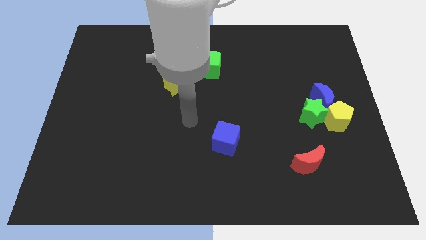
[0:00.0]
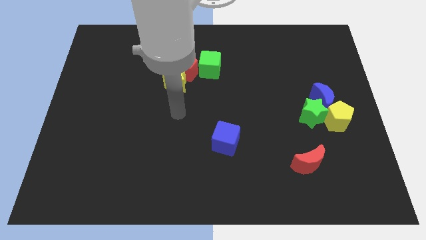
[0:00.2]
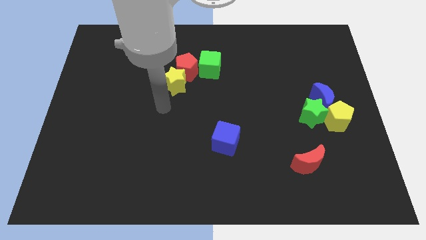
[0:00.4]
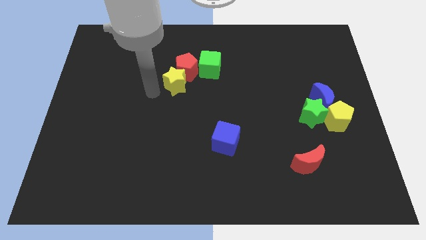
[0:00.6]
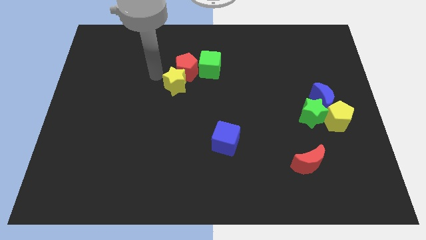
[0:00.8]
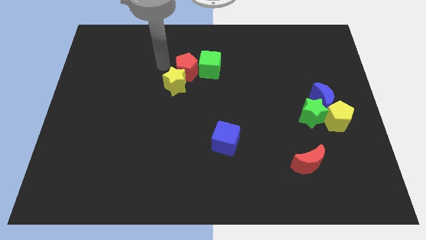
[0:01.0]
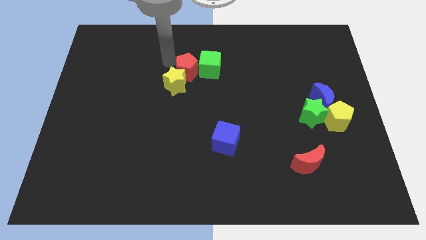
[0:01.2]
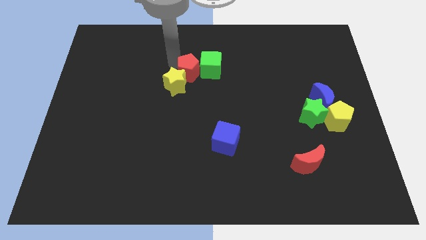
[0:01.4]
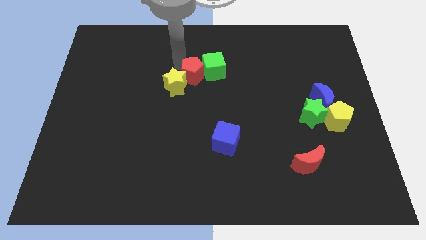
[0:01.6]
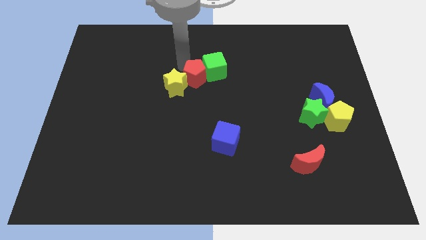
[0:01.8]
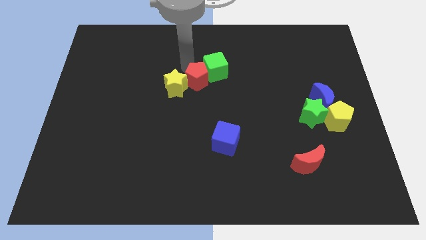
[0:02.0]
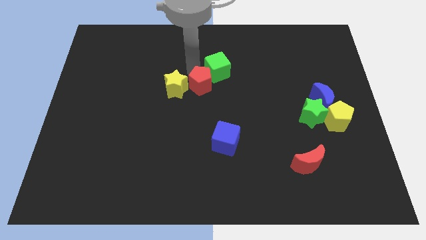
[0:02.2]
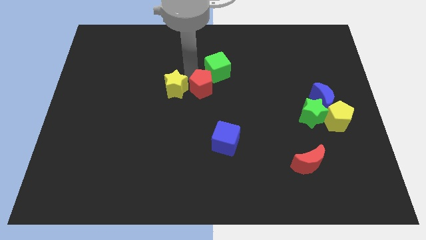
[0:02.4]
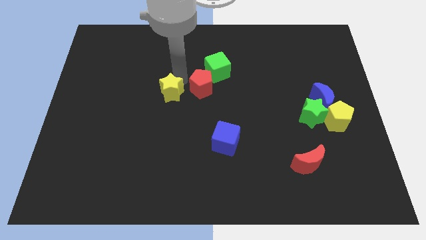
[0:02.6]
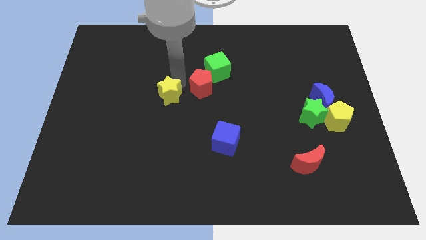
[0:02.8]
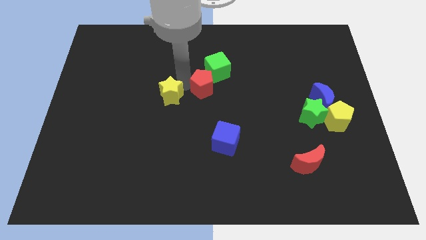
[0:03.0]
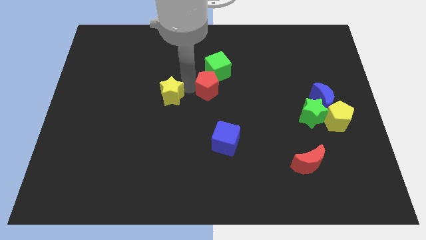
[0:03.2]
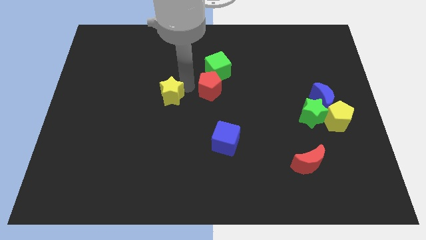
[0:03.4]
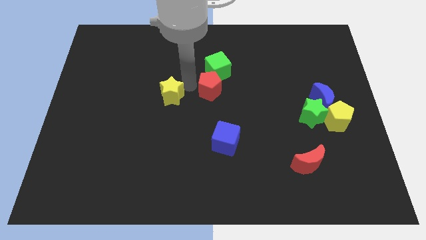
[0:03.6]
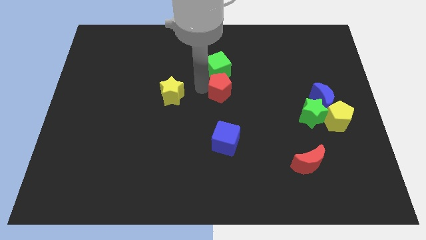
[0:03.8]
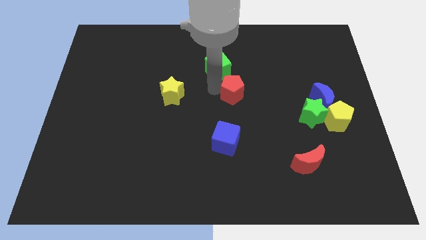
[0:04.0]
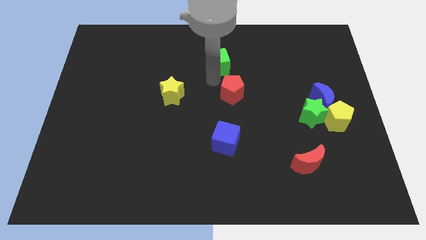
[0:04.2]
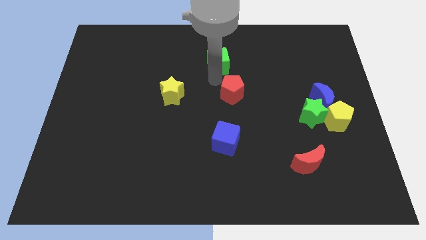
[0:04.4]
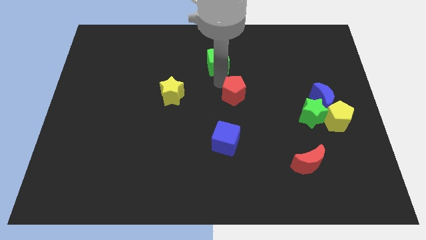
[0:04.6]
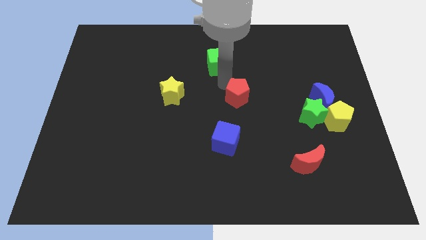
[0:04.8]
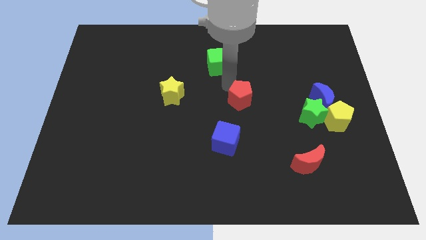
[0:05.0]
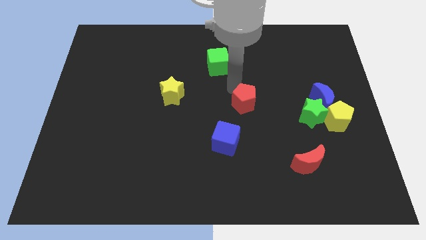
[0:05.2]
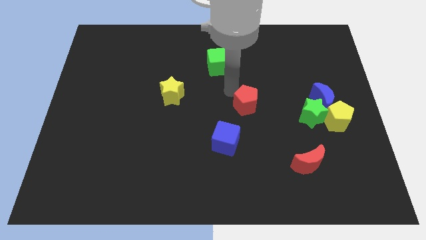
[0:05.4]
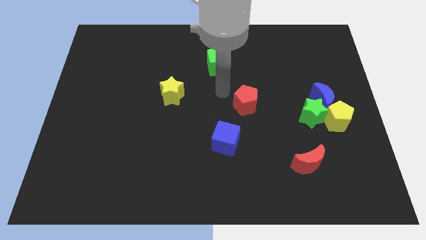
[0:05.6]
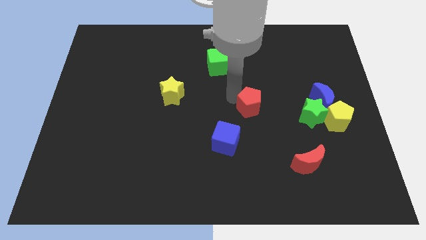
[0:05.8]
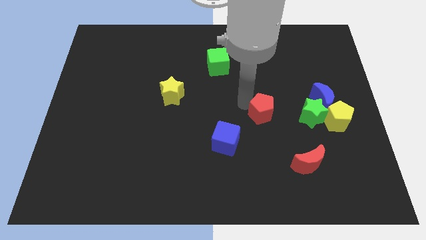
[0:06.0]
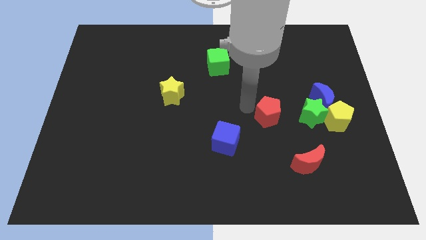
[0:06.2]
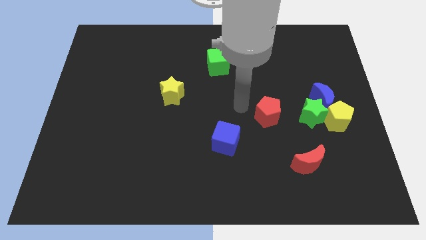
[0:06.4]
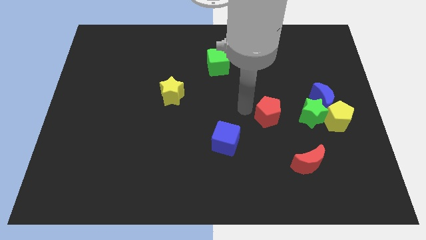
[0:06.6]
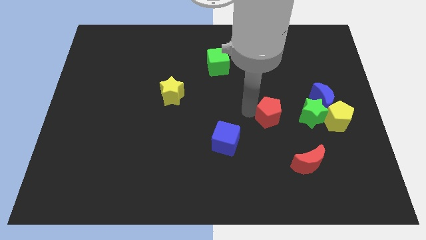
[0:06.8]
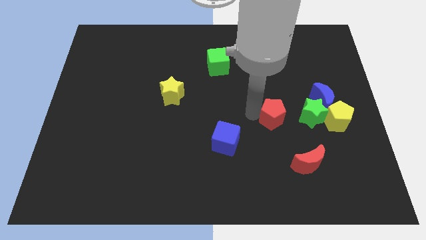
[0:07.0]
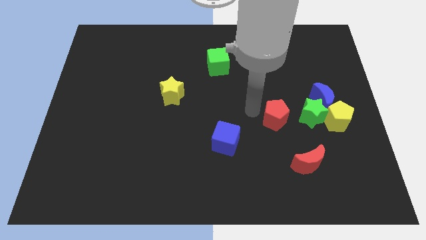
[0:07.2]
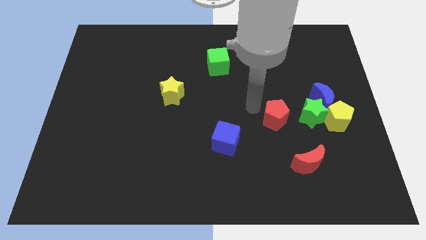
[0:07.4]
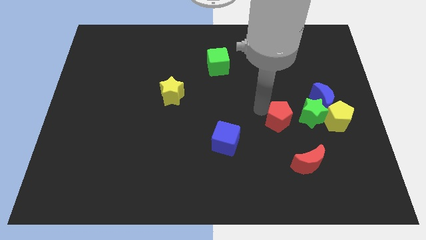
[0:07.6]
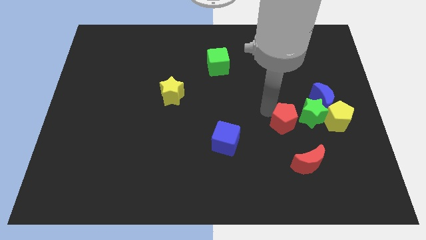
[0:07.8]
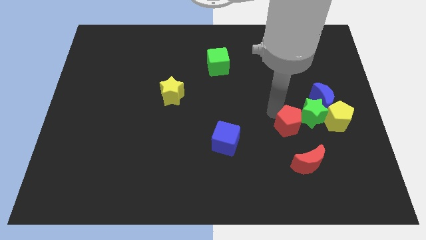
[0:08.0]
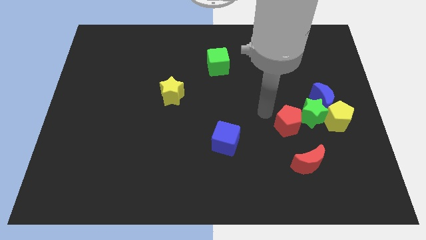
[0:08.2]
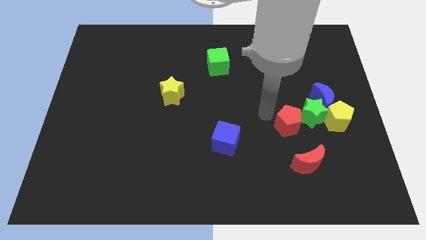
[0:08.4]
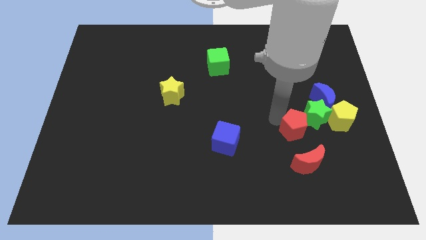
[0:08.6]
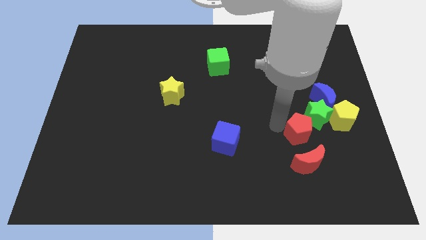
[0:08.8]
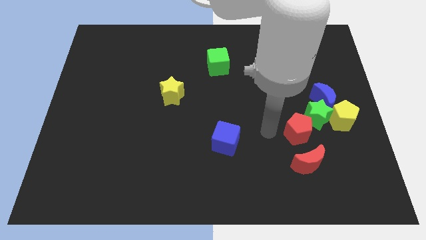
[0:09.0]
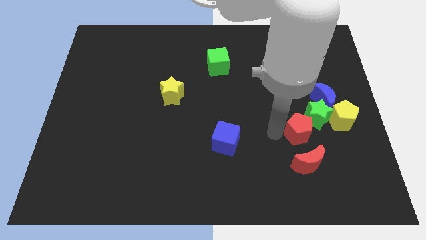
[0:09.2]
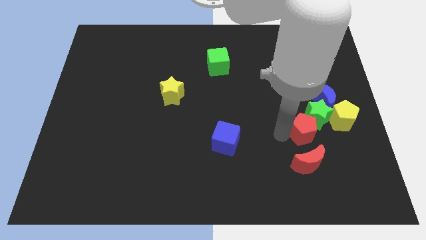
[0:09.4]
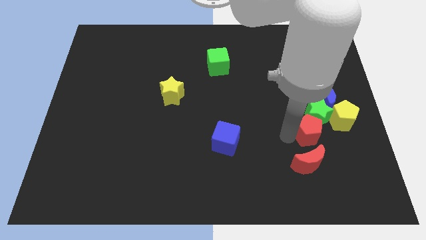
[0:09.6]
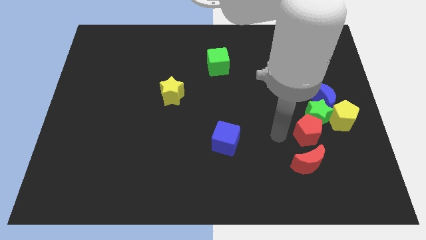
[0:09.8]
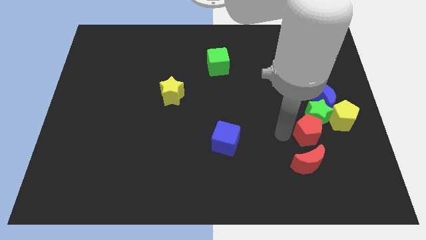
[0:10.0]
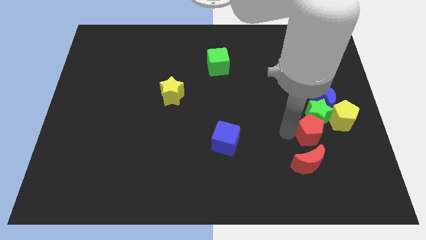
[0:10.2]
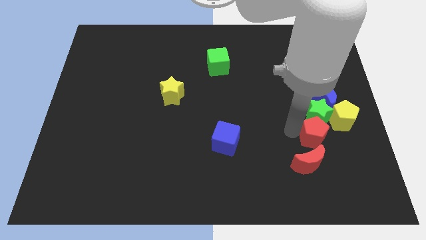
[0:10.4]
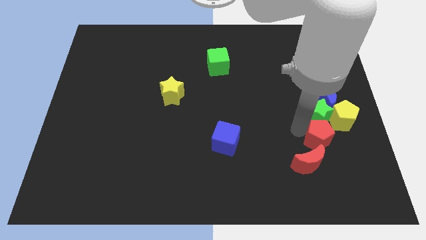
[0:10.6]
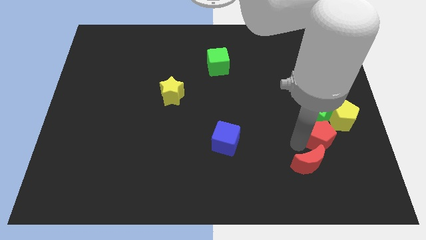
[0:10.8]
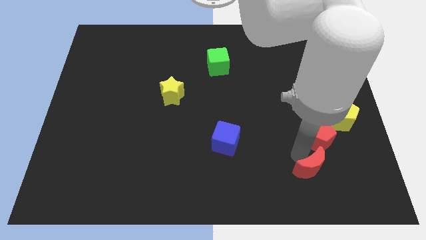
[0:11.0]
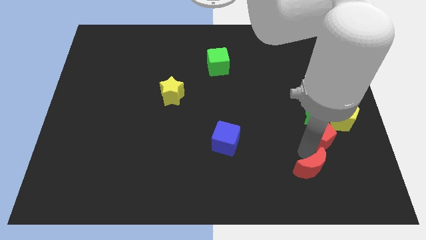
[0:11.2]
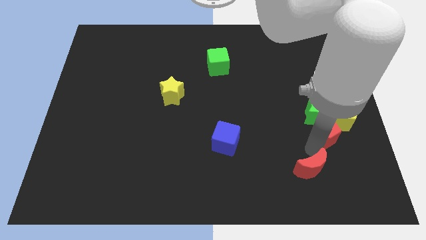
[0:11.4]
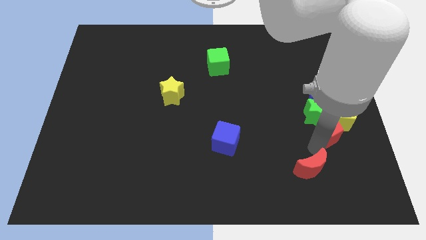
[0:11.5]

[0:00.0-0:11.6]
slide the red pentagon towards the yellow pentagon

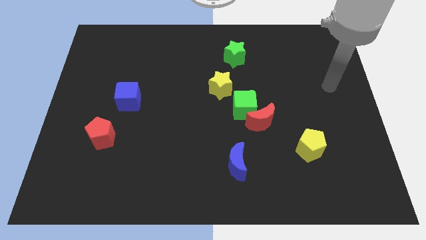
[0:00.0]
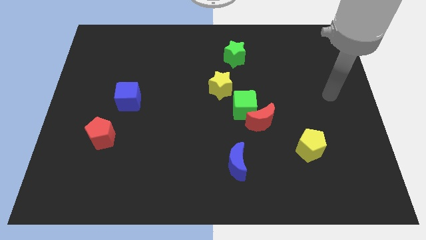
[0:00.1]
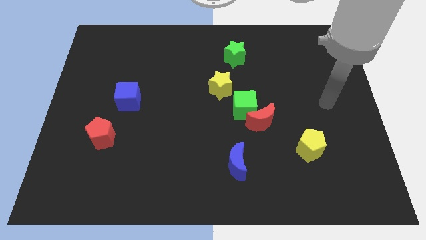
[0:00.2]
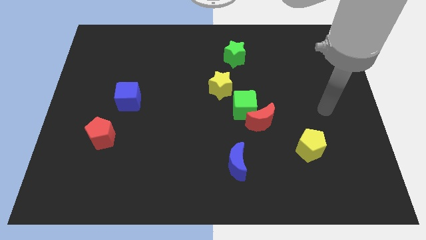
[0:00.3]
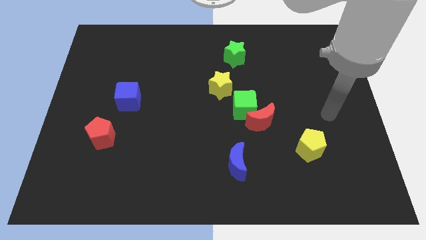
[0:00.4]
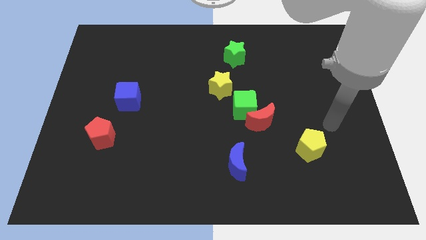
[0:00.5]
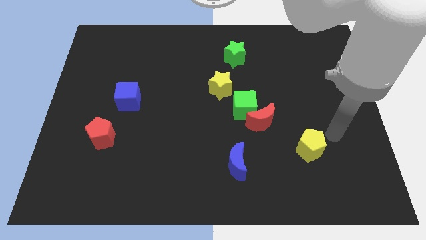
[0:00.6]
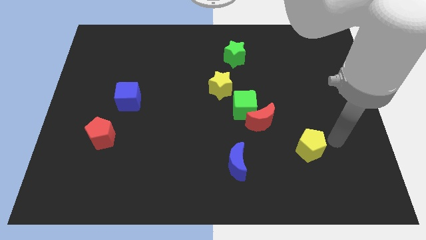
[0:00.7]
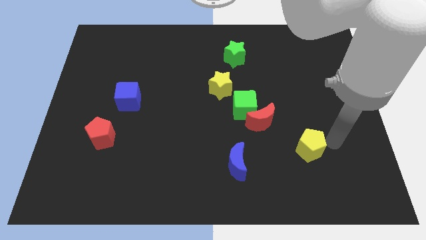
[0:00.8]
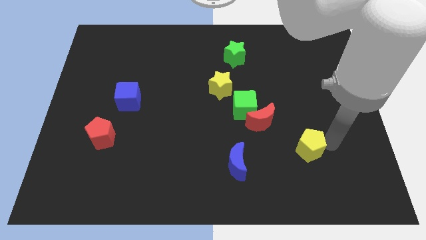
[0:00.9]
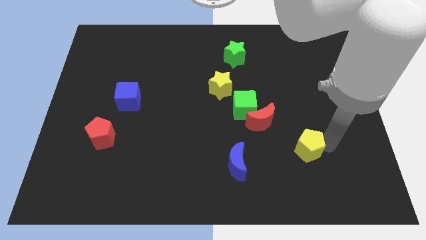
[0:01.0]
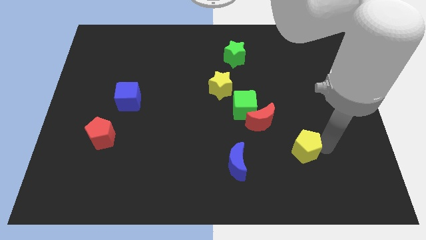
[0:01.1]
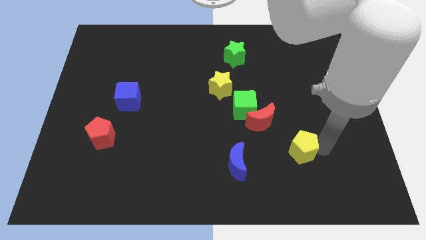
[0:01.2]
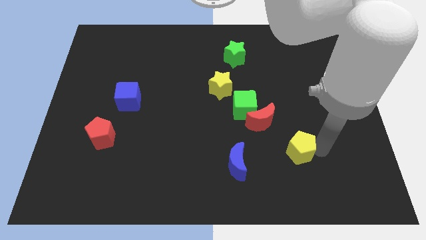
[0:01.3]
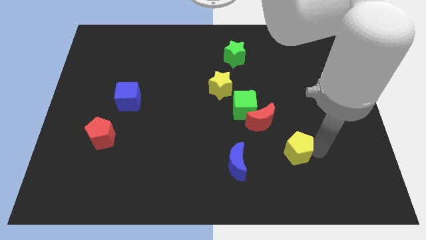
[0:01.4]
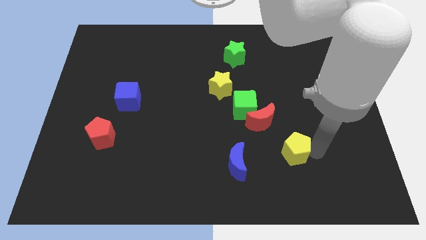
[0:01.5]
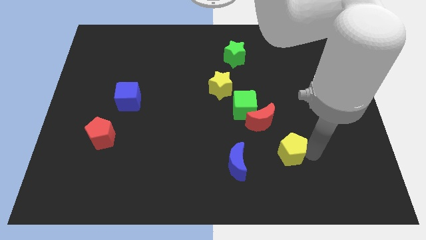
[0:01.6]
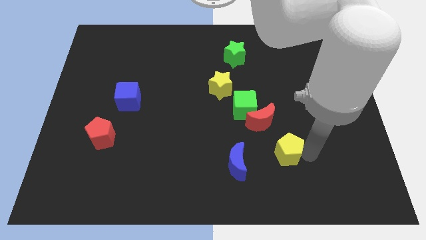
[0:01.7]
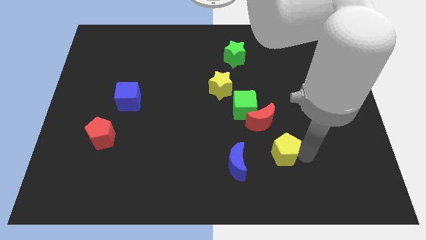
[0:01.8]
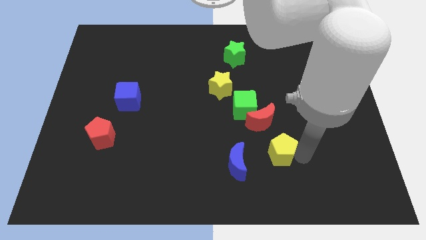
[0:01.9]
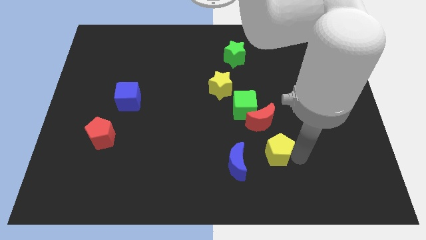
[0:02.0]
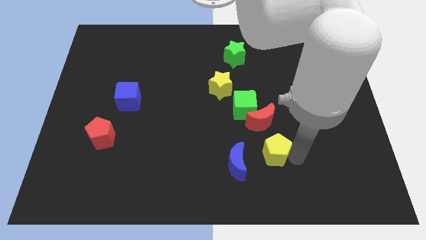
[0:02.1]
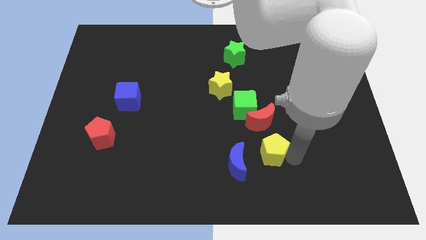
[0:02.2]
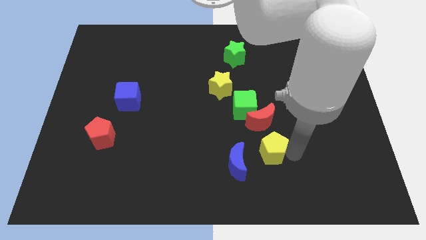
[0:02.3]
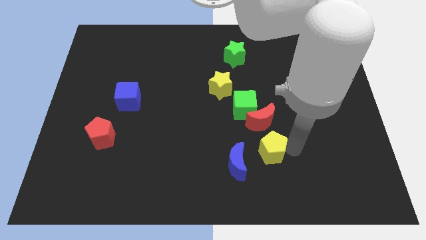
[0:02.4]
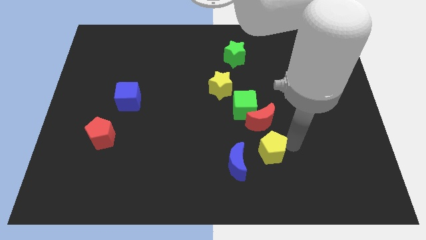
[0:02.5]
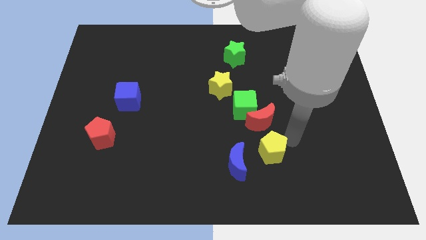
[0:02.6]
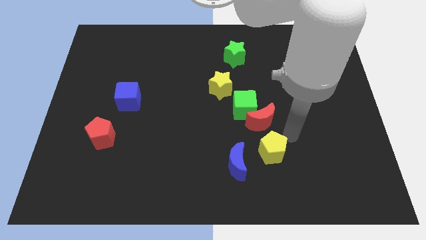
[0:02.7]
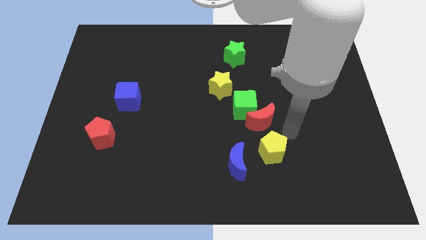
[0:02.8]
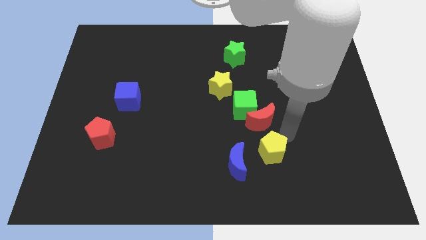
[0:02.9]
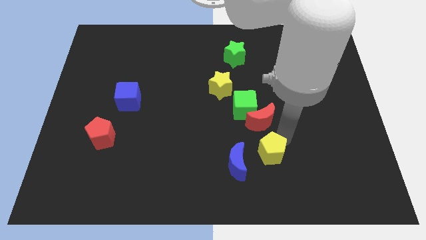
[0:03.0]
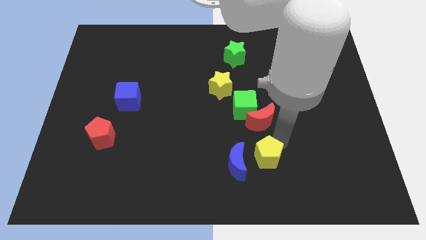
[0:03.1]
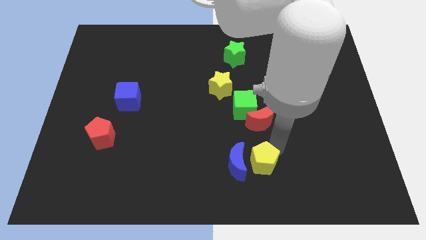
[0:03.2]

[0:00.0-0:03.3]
slide the yellow pentagon towards the blue moon
